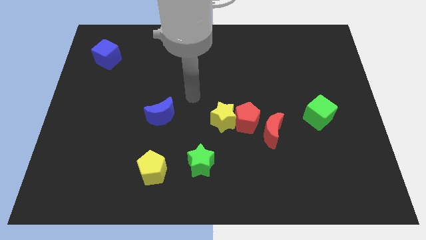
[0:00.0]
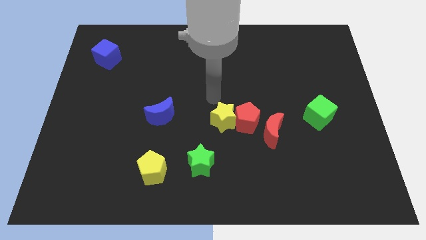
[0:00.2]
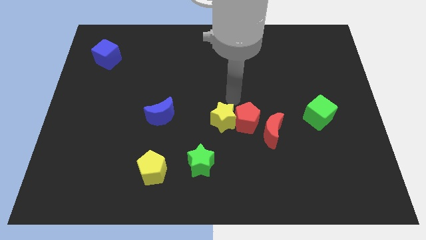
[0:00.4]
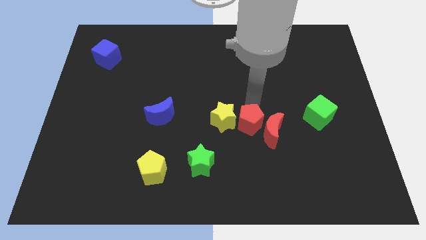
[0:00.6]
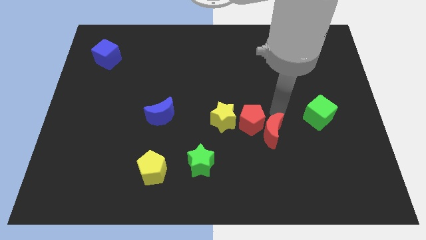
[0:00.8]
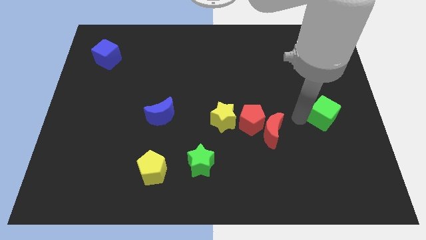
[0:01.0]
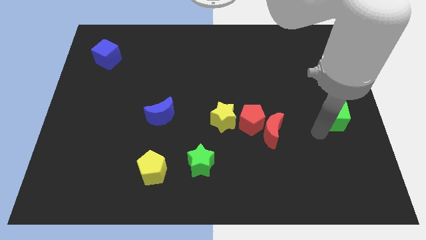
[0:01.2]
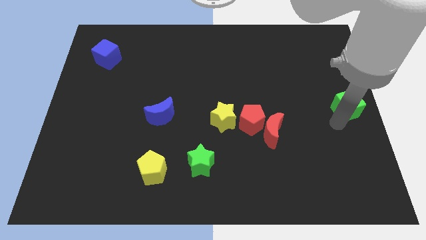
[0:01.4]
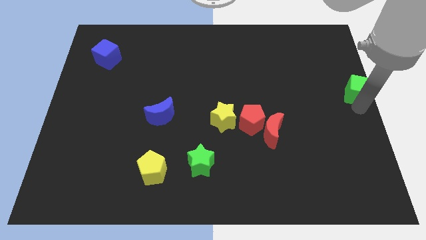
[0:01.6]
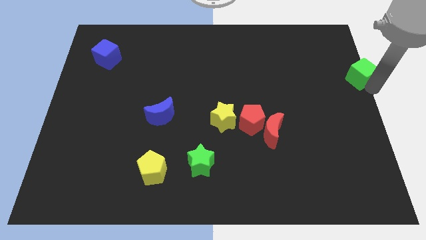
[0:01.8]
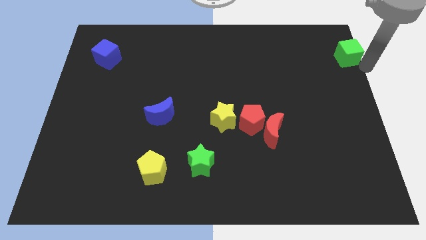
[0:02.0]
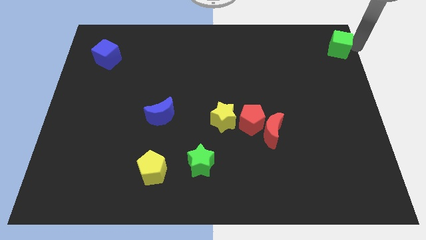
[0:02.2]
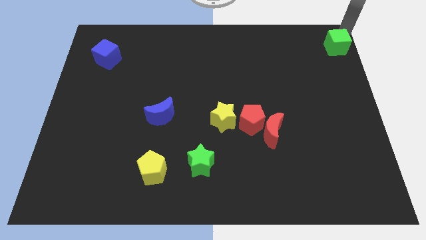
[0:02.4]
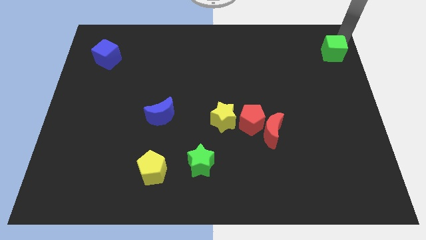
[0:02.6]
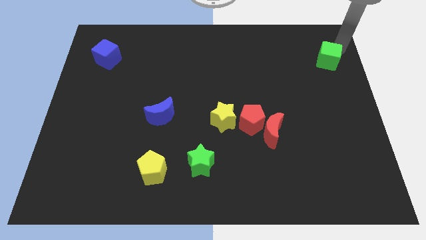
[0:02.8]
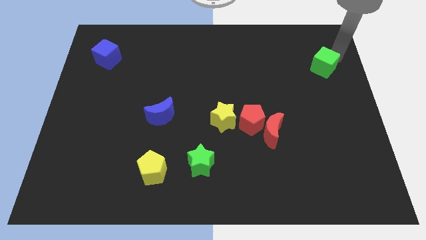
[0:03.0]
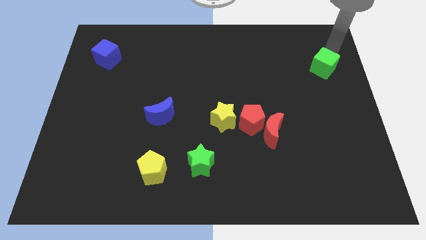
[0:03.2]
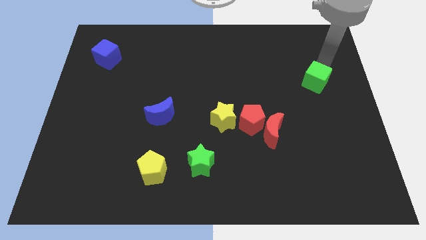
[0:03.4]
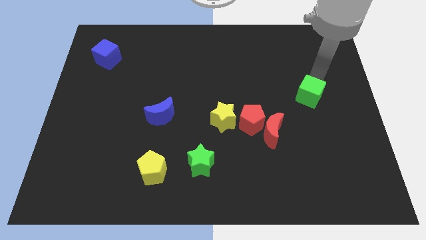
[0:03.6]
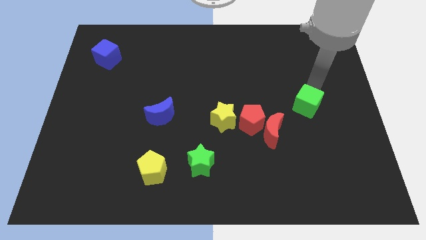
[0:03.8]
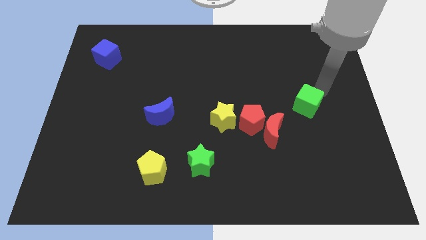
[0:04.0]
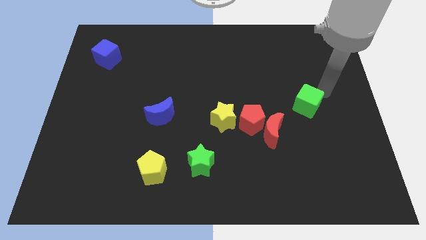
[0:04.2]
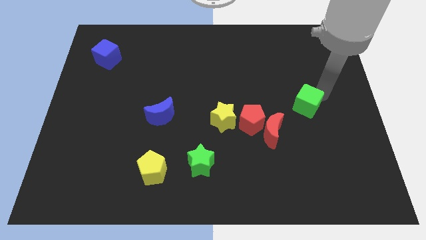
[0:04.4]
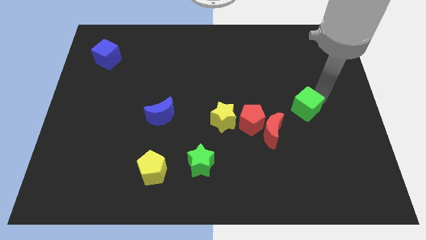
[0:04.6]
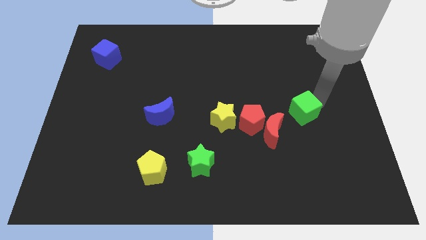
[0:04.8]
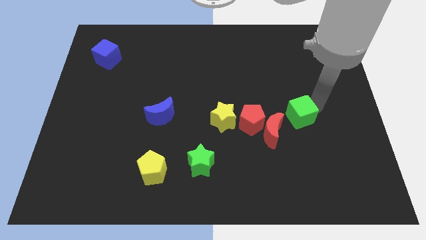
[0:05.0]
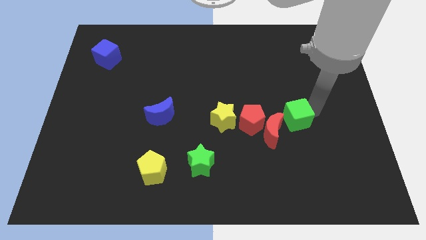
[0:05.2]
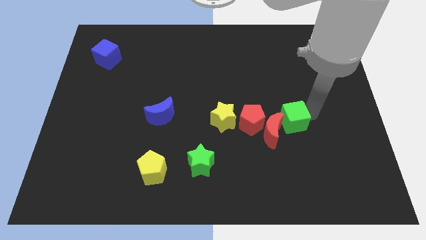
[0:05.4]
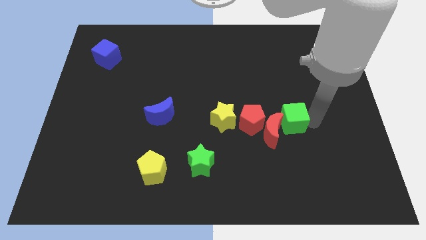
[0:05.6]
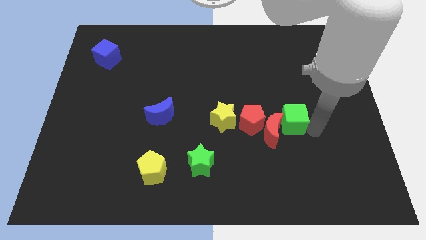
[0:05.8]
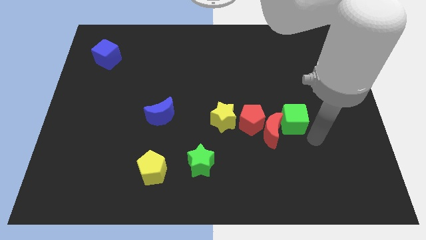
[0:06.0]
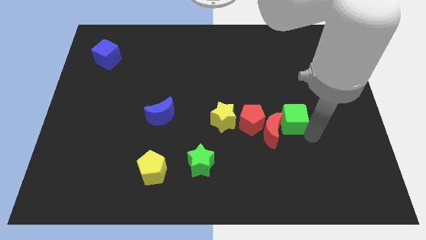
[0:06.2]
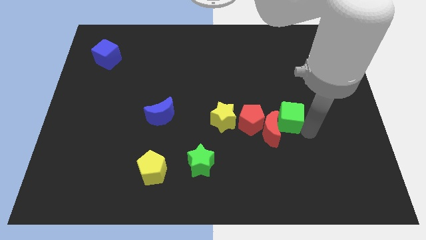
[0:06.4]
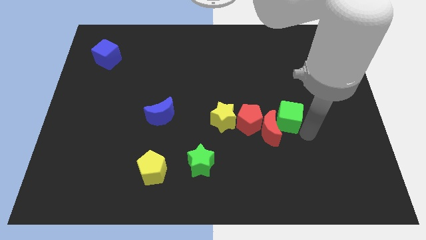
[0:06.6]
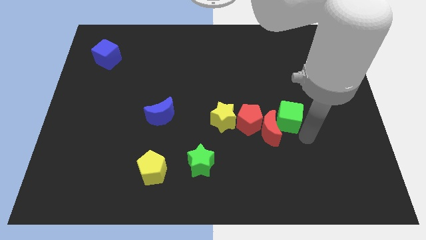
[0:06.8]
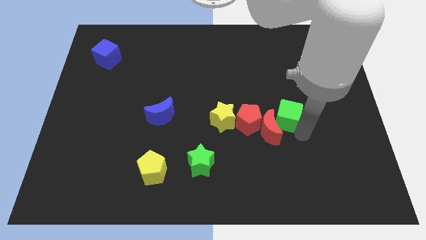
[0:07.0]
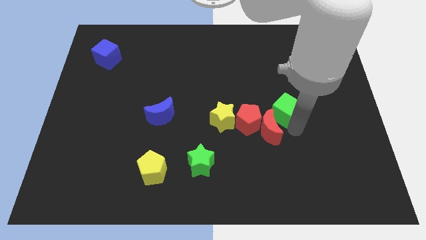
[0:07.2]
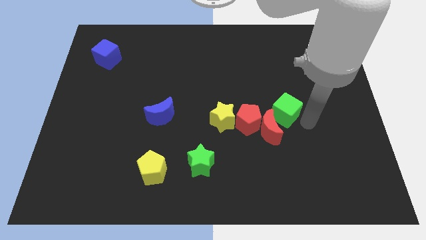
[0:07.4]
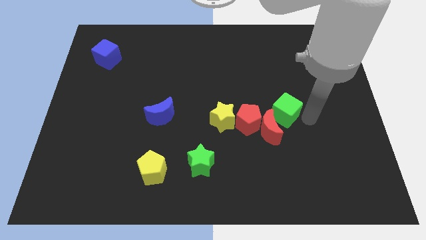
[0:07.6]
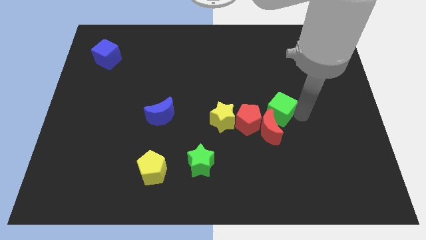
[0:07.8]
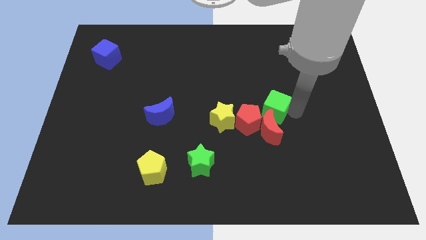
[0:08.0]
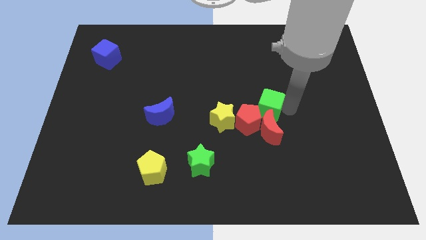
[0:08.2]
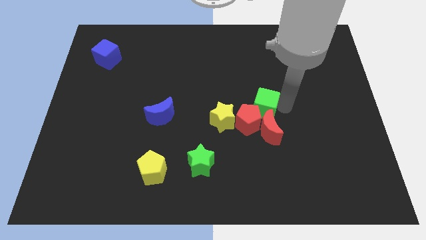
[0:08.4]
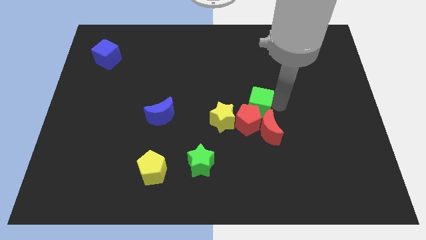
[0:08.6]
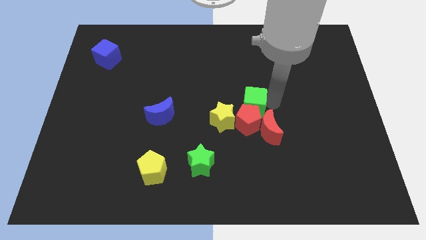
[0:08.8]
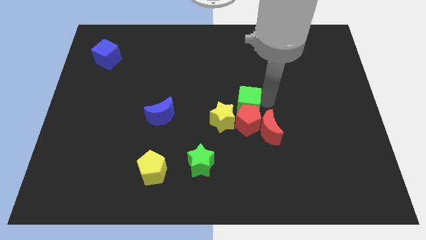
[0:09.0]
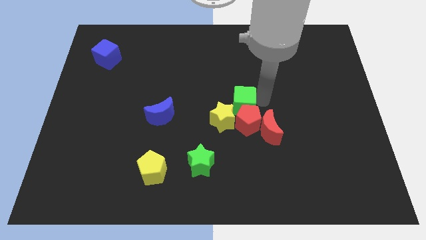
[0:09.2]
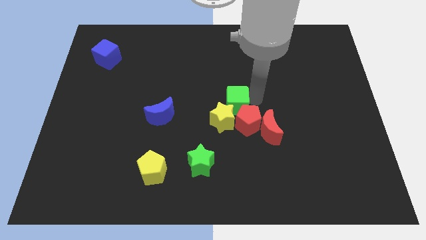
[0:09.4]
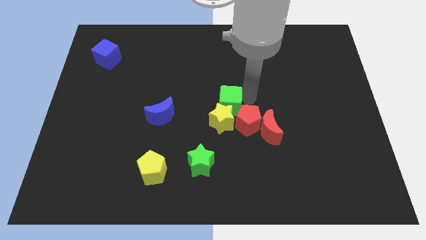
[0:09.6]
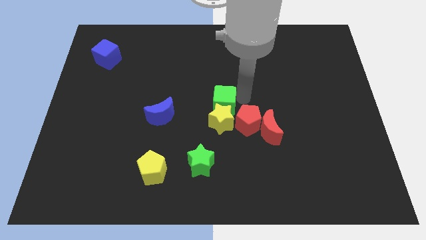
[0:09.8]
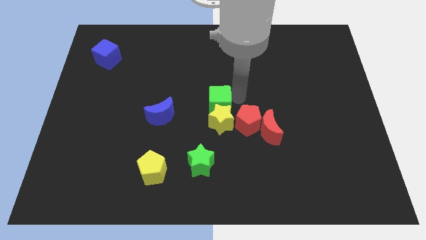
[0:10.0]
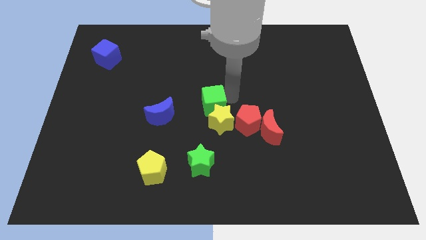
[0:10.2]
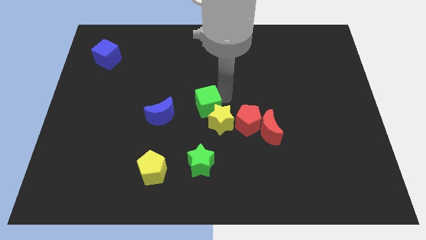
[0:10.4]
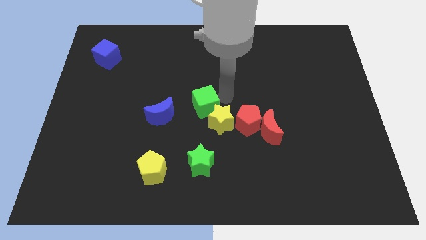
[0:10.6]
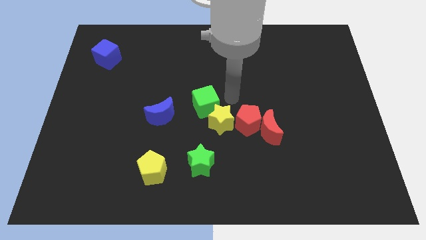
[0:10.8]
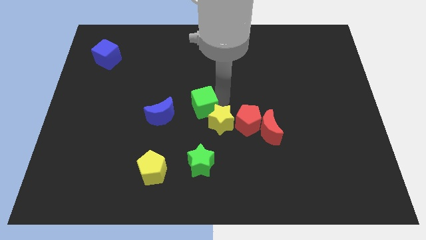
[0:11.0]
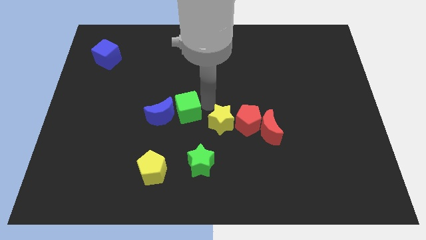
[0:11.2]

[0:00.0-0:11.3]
put the green cube to the blue moon

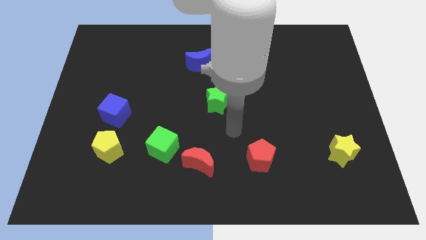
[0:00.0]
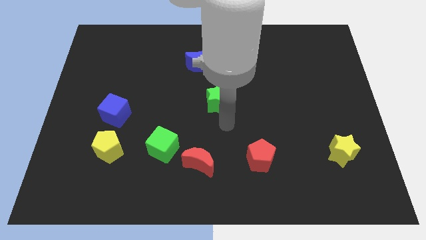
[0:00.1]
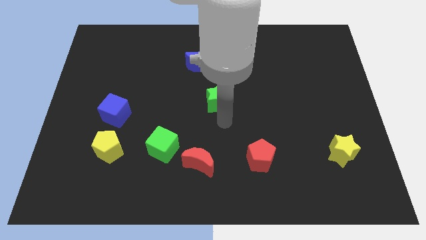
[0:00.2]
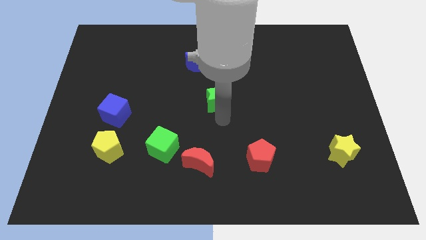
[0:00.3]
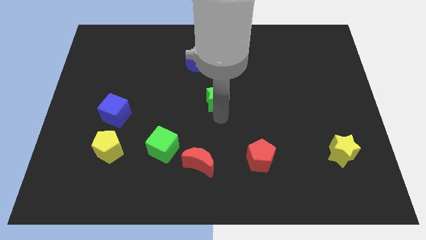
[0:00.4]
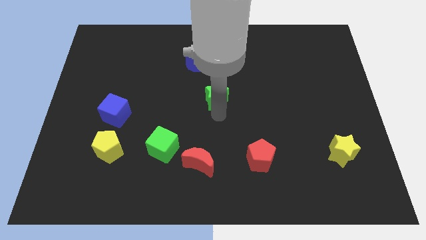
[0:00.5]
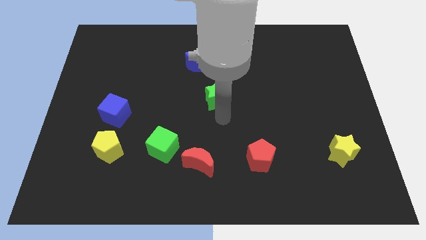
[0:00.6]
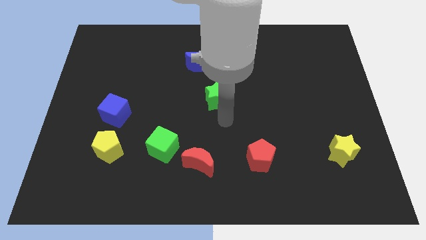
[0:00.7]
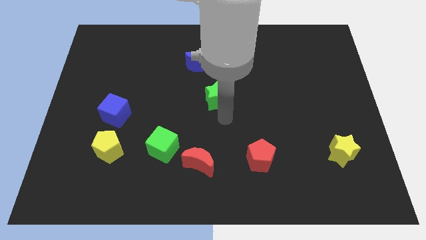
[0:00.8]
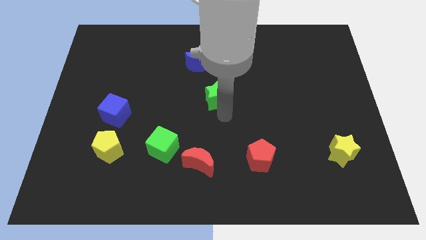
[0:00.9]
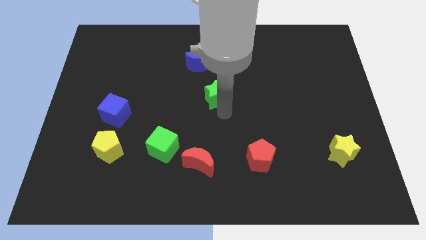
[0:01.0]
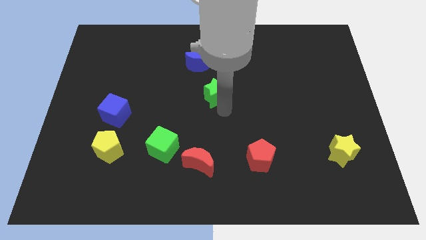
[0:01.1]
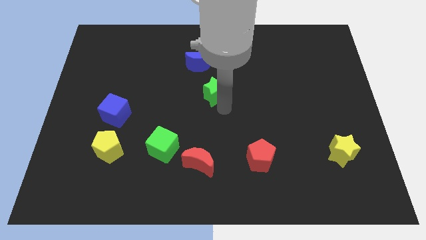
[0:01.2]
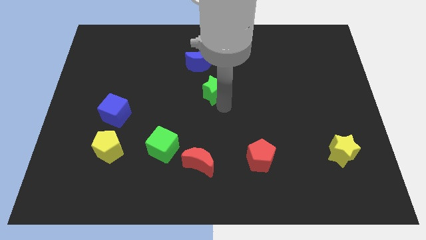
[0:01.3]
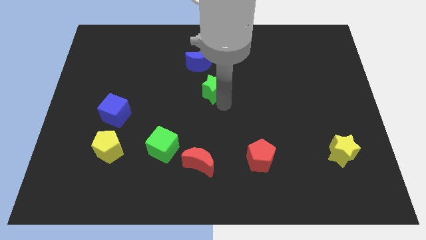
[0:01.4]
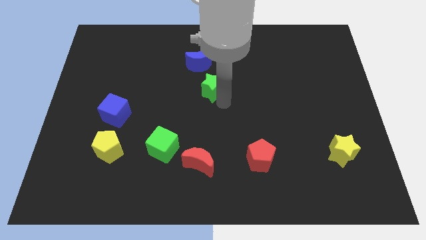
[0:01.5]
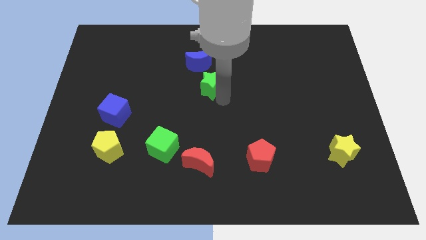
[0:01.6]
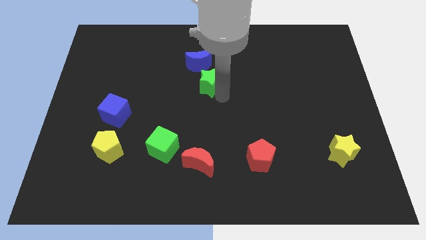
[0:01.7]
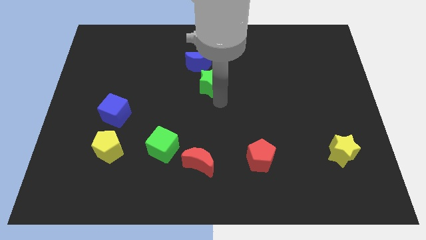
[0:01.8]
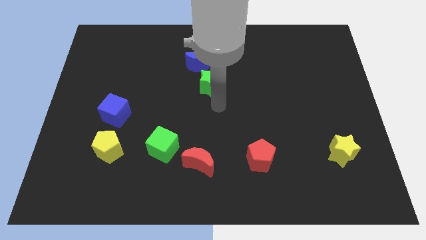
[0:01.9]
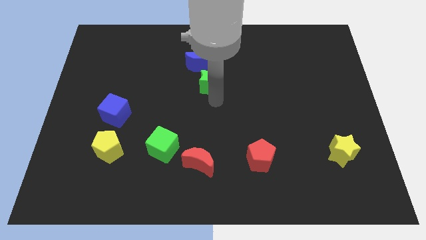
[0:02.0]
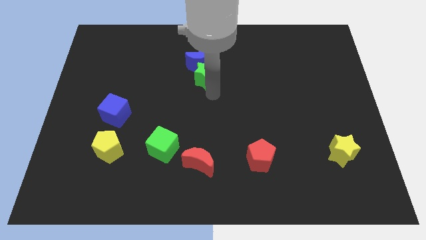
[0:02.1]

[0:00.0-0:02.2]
push the green star close to the blue moon
